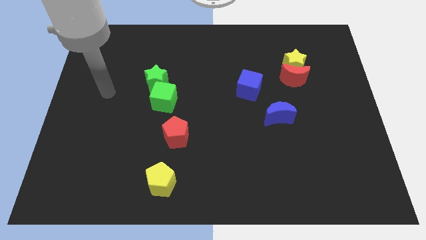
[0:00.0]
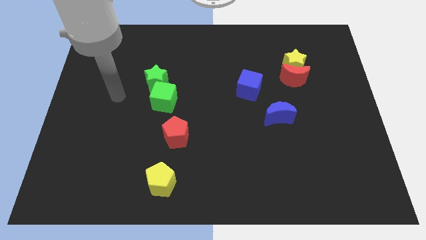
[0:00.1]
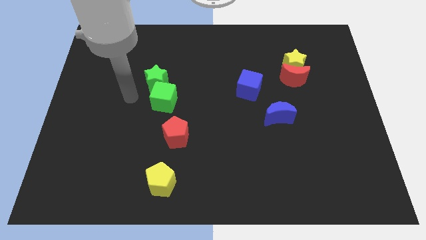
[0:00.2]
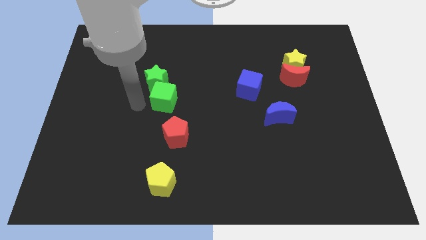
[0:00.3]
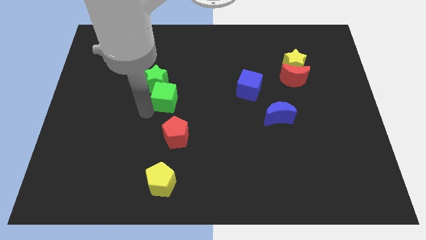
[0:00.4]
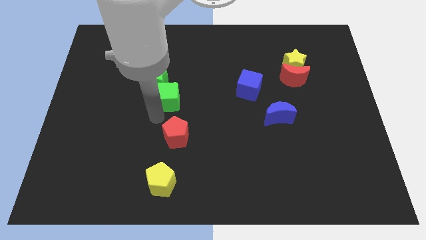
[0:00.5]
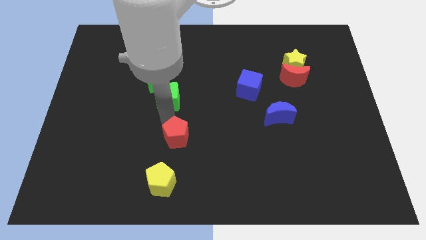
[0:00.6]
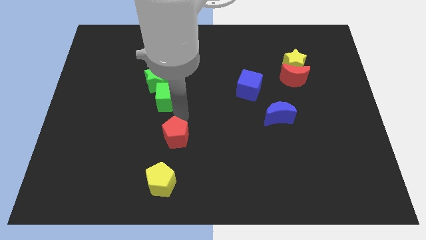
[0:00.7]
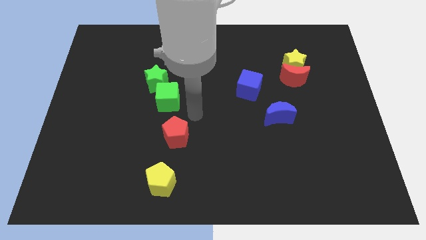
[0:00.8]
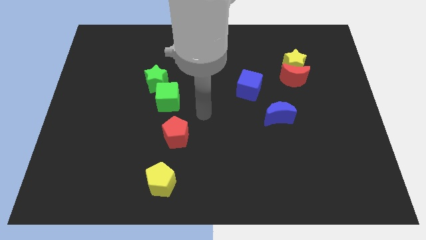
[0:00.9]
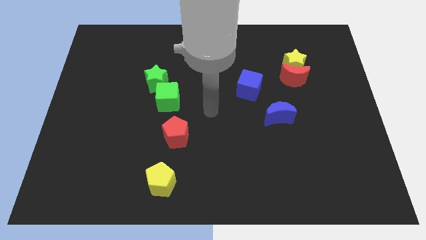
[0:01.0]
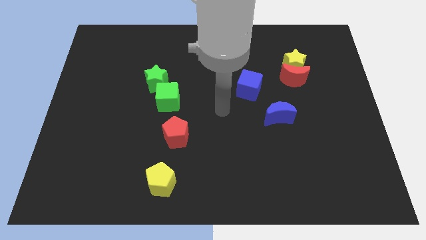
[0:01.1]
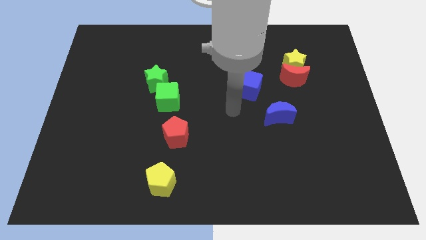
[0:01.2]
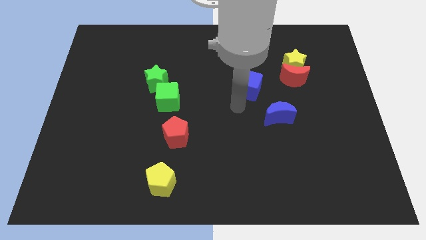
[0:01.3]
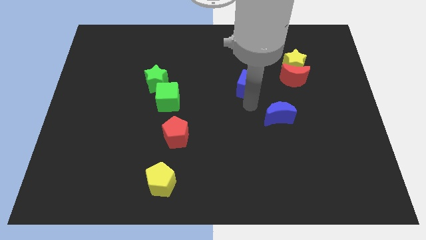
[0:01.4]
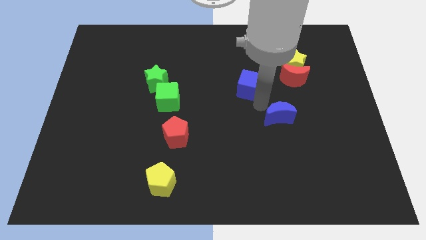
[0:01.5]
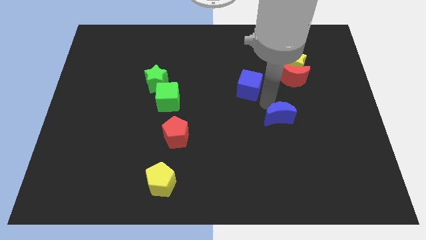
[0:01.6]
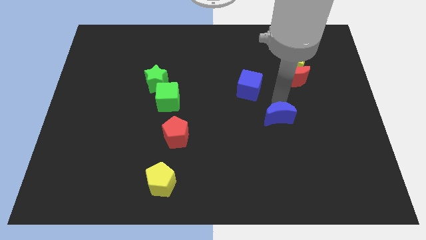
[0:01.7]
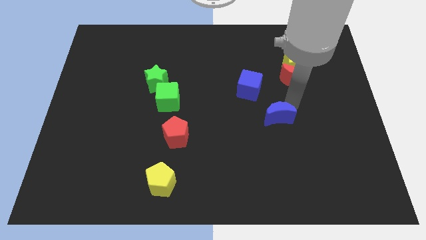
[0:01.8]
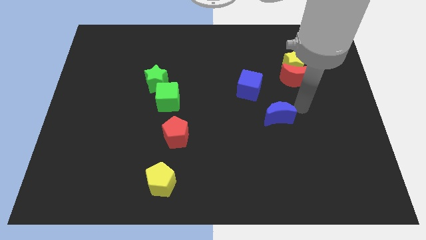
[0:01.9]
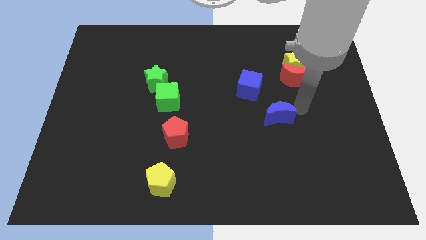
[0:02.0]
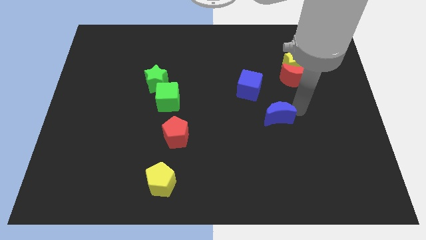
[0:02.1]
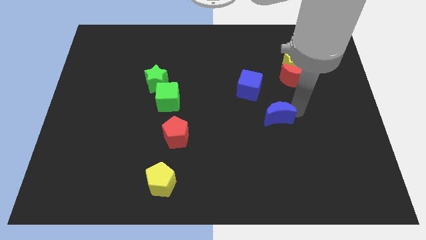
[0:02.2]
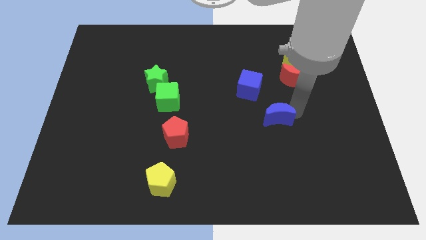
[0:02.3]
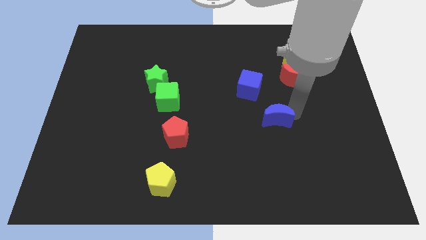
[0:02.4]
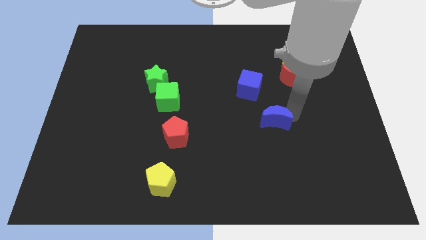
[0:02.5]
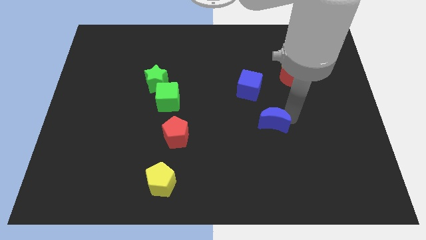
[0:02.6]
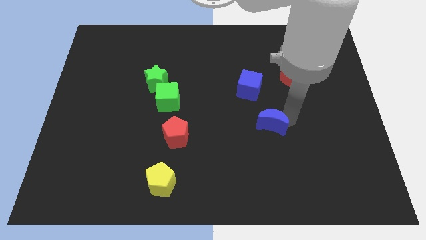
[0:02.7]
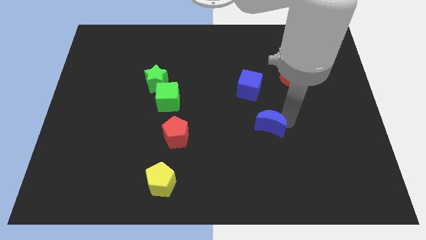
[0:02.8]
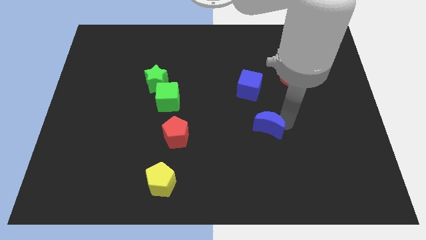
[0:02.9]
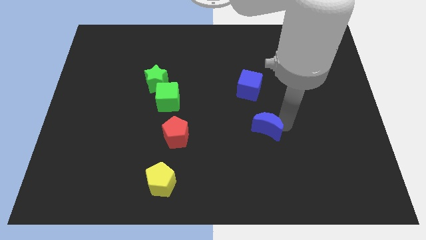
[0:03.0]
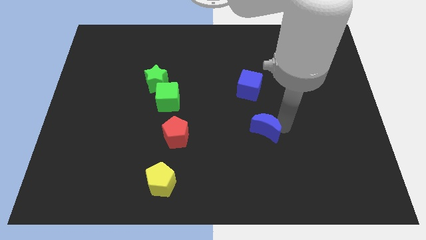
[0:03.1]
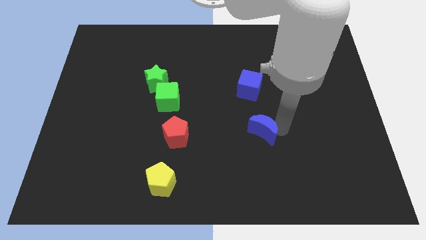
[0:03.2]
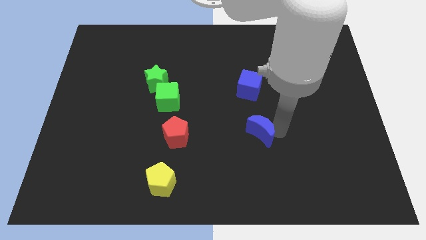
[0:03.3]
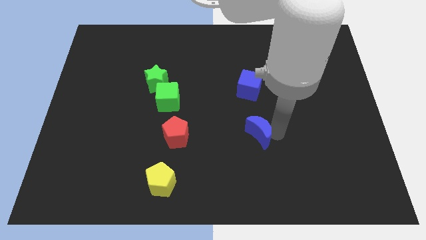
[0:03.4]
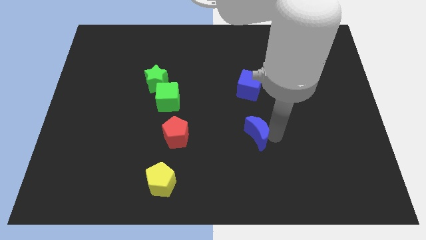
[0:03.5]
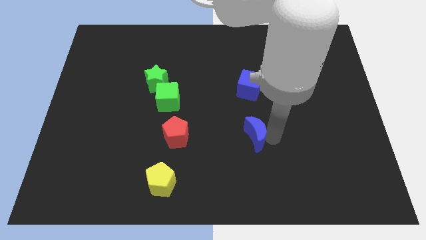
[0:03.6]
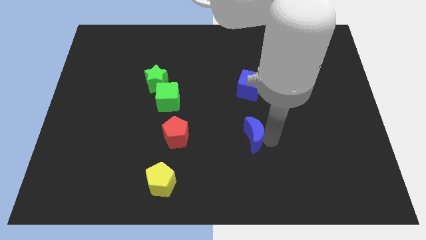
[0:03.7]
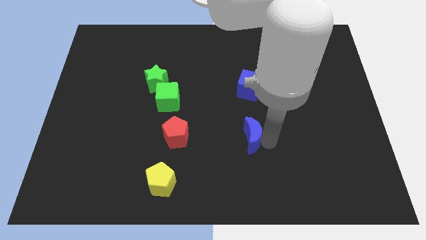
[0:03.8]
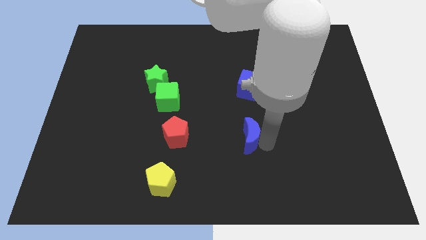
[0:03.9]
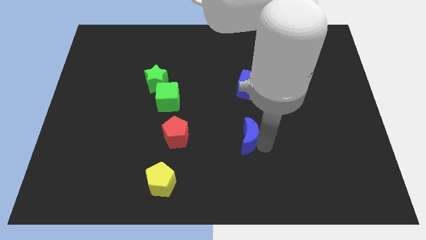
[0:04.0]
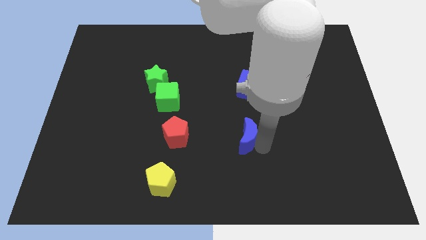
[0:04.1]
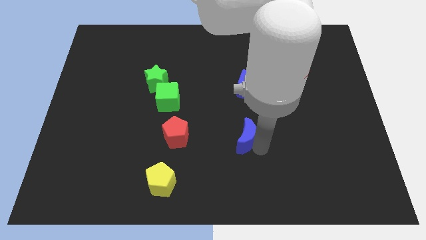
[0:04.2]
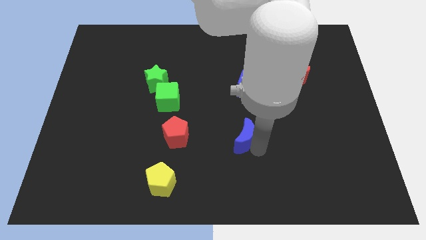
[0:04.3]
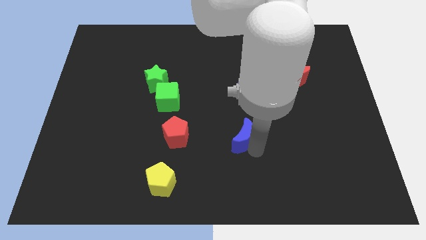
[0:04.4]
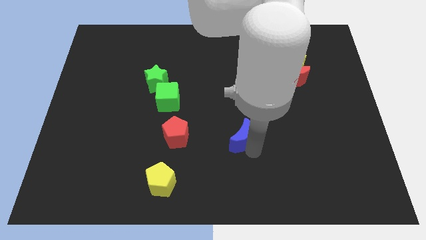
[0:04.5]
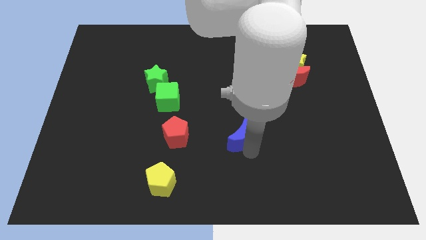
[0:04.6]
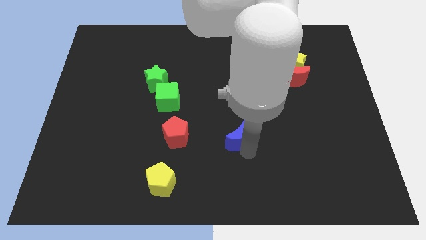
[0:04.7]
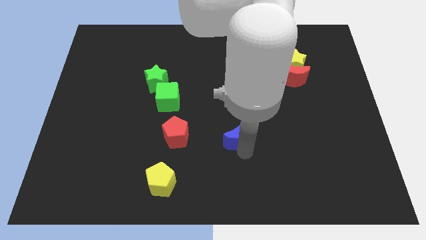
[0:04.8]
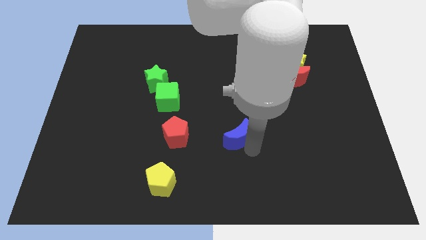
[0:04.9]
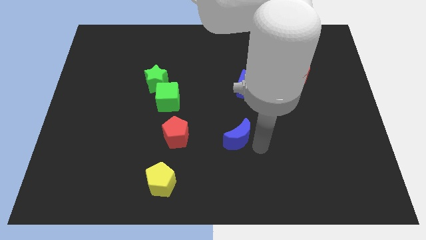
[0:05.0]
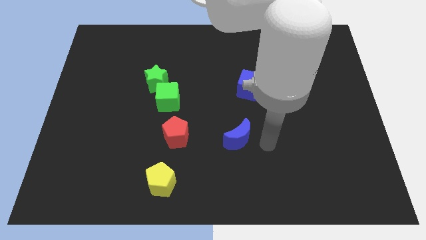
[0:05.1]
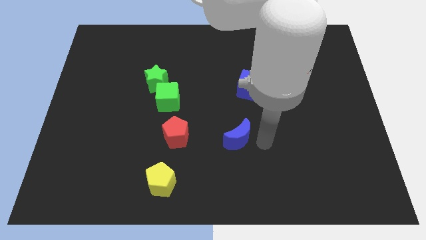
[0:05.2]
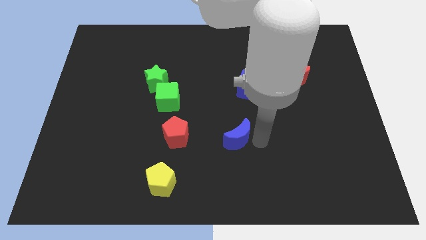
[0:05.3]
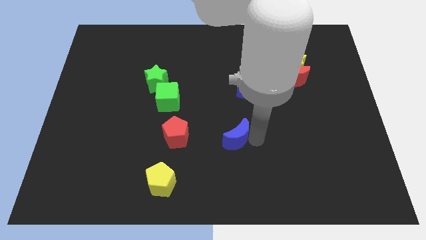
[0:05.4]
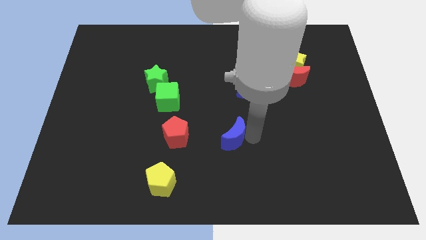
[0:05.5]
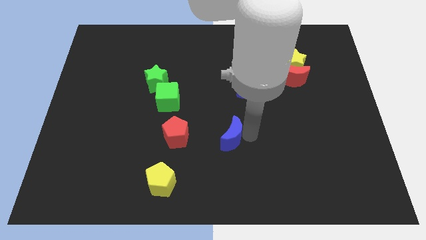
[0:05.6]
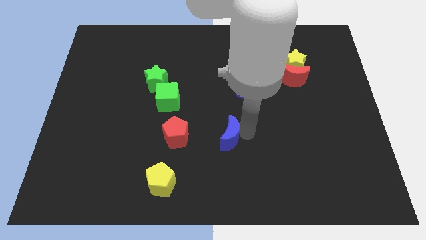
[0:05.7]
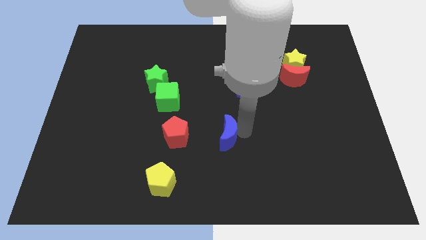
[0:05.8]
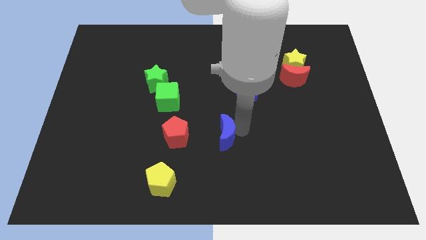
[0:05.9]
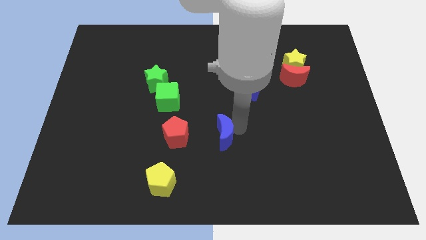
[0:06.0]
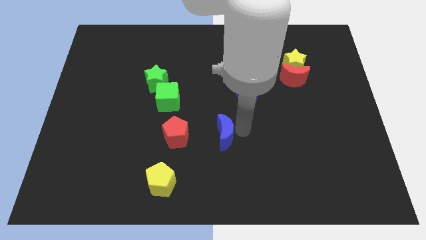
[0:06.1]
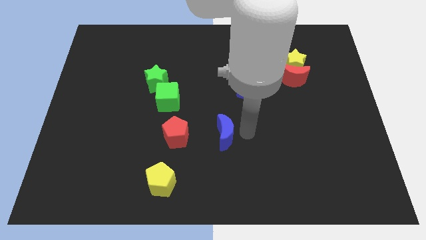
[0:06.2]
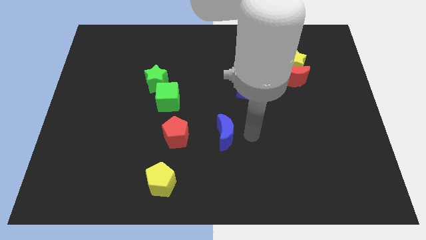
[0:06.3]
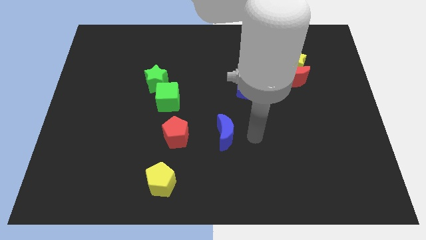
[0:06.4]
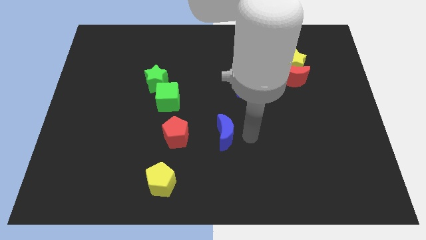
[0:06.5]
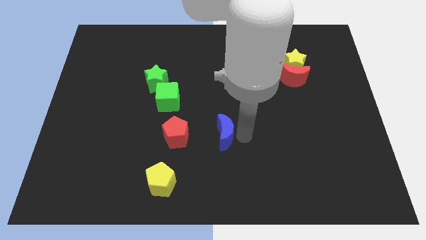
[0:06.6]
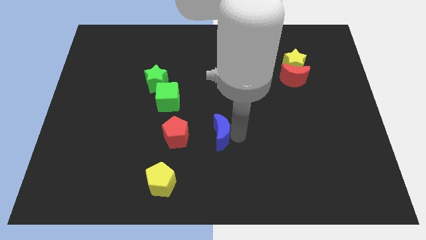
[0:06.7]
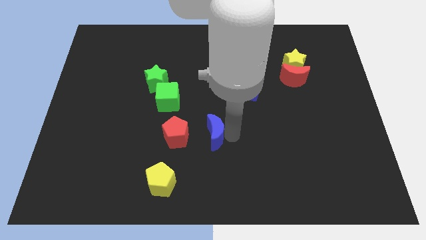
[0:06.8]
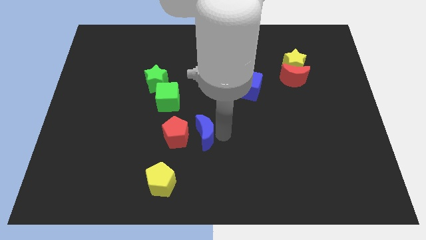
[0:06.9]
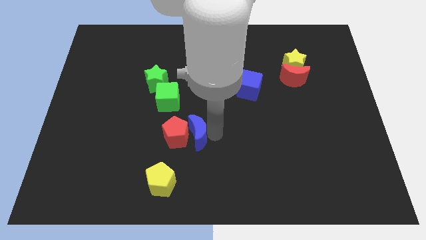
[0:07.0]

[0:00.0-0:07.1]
slide the blue moon next to the red pentagon
